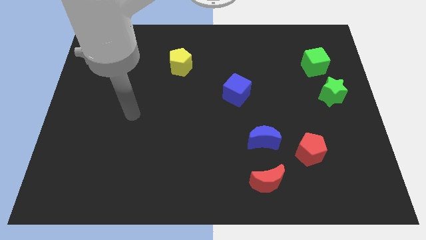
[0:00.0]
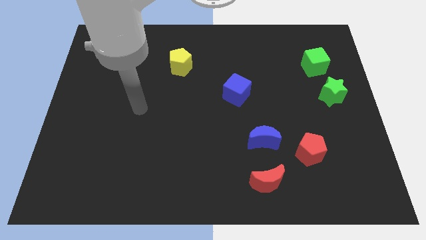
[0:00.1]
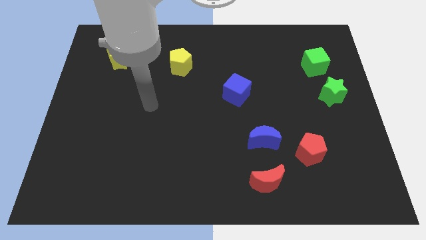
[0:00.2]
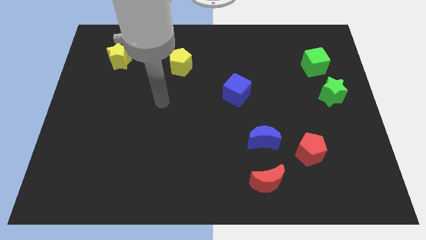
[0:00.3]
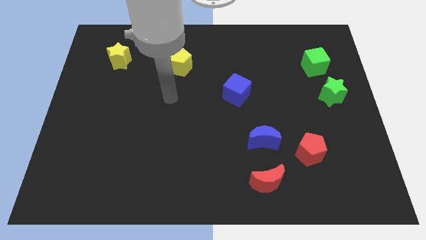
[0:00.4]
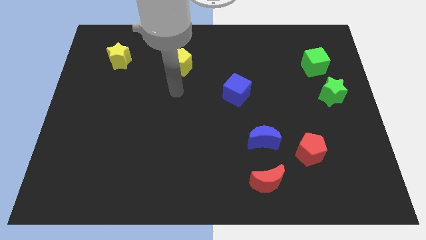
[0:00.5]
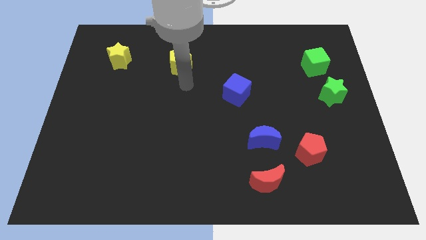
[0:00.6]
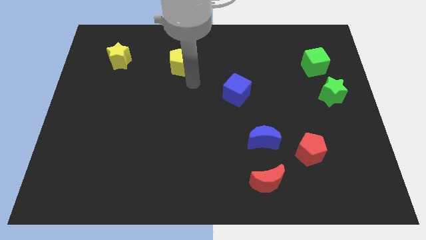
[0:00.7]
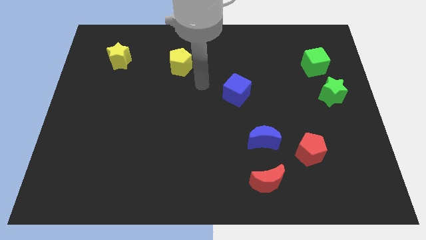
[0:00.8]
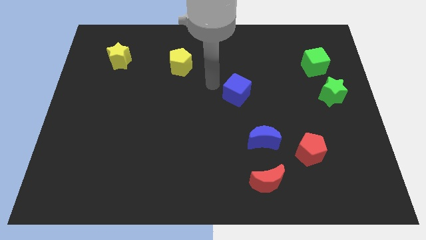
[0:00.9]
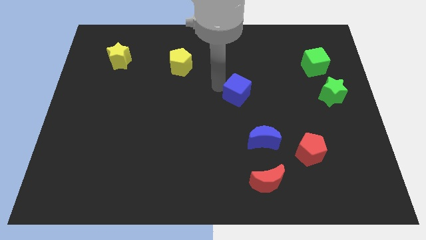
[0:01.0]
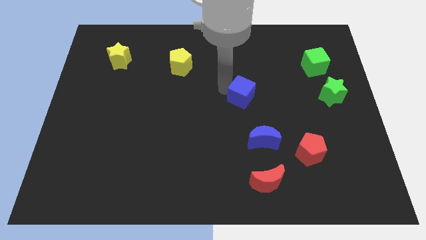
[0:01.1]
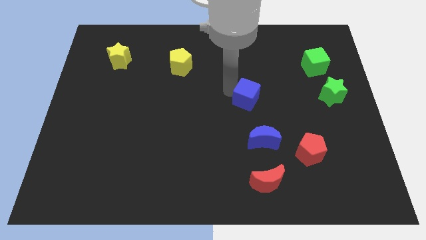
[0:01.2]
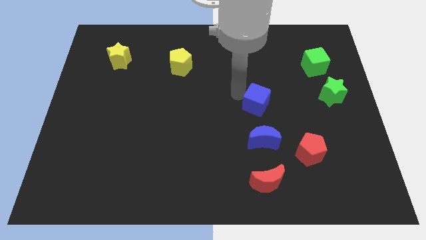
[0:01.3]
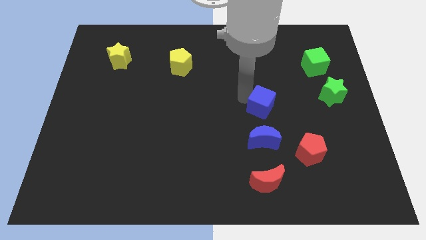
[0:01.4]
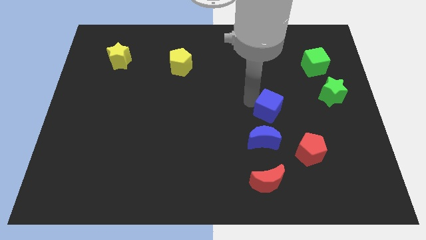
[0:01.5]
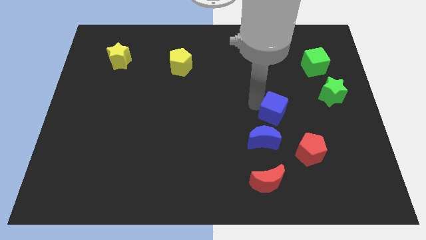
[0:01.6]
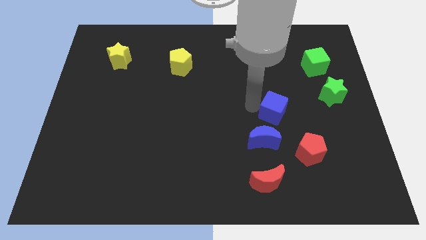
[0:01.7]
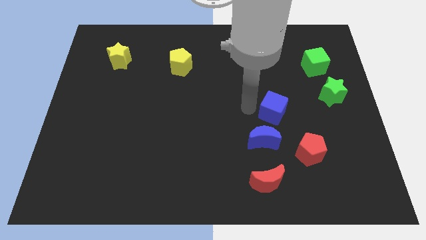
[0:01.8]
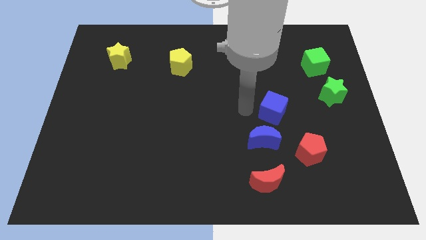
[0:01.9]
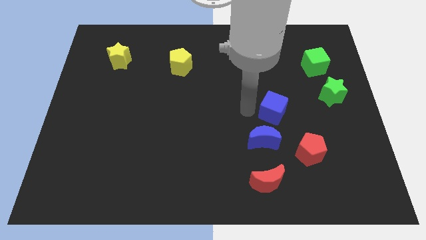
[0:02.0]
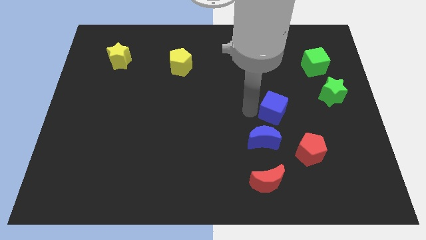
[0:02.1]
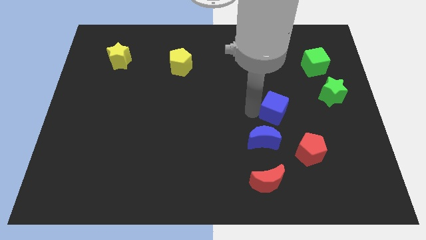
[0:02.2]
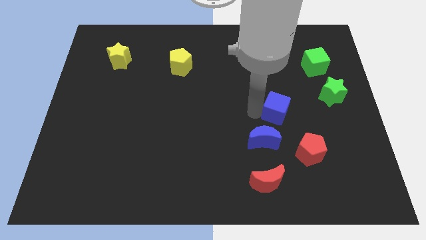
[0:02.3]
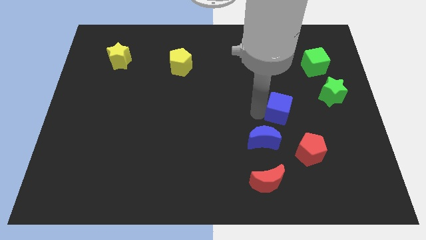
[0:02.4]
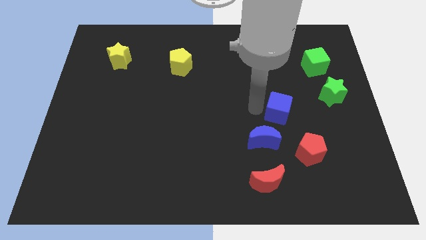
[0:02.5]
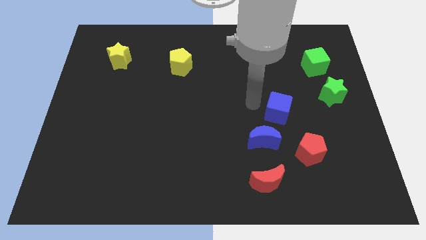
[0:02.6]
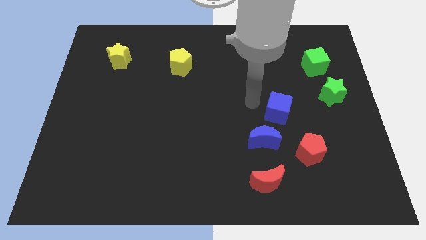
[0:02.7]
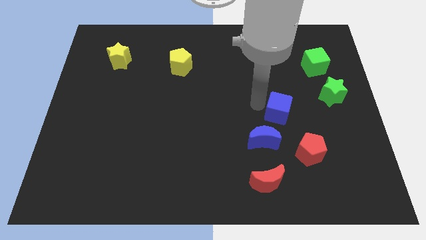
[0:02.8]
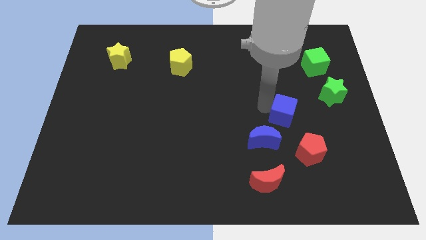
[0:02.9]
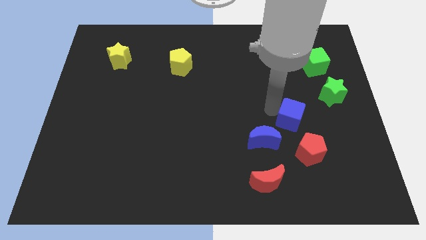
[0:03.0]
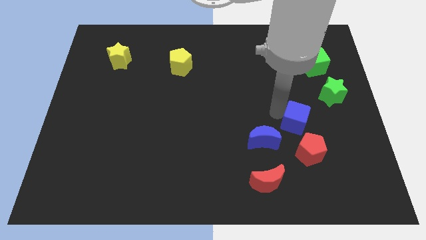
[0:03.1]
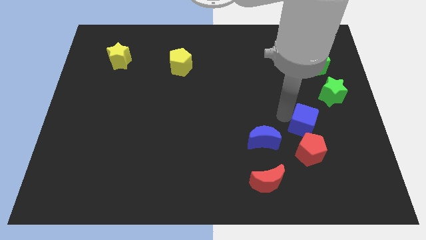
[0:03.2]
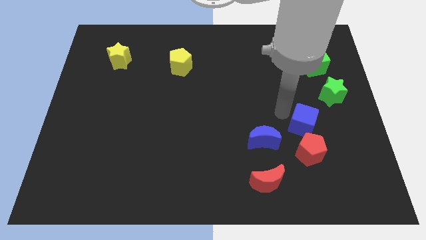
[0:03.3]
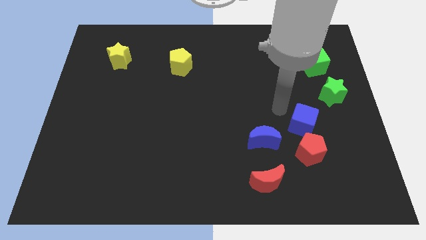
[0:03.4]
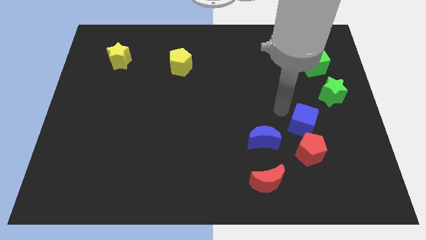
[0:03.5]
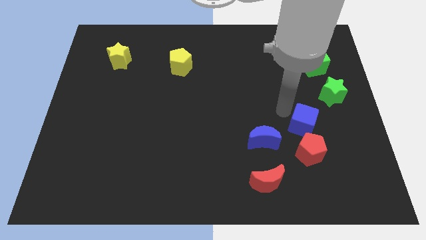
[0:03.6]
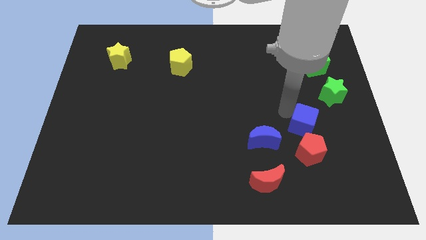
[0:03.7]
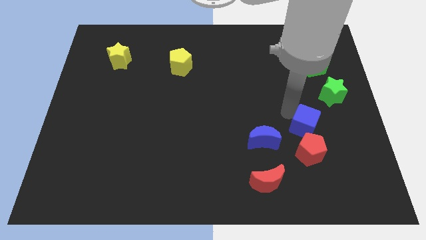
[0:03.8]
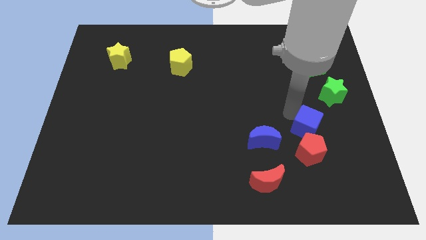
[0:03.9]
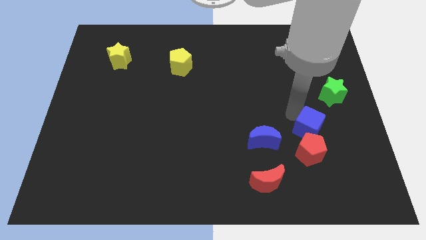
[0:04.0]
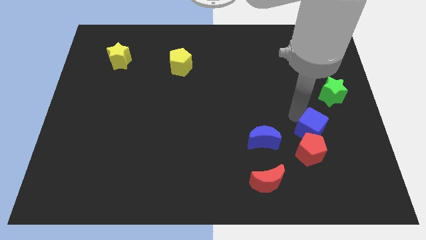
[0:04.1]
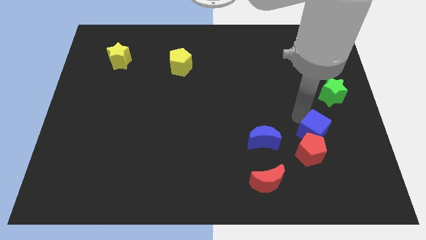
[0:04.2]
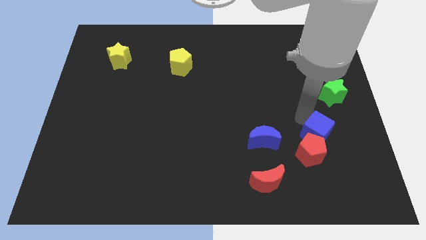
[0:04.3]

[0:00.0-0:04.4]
slide the blue cube downwards and then right

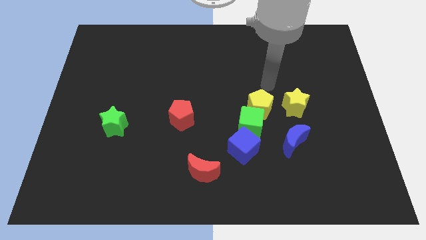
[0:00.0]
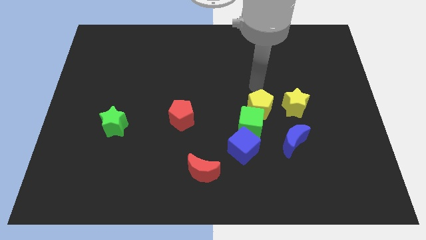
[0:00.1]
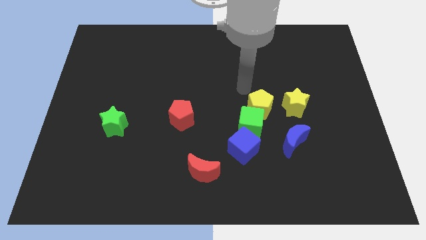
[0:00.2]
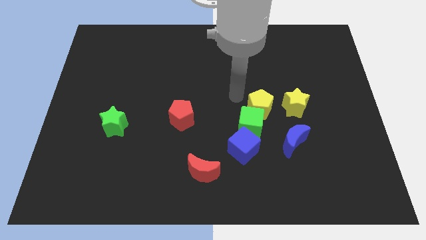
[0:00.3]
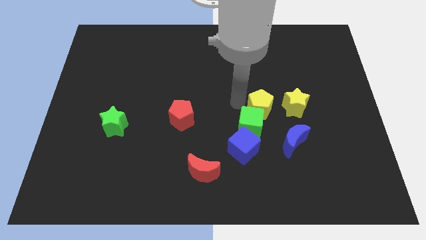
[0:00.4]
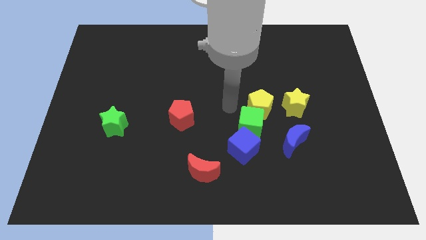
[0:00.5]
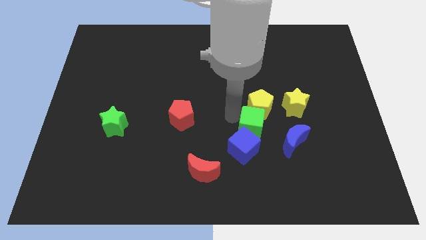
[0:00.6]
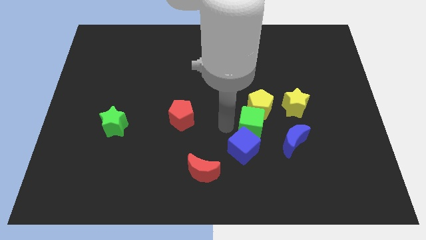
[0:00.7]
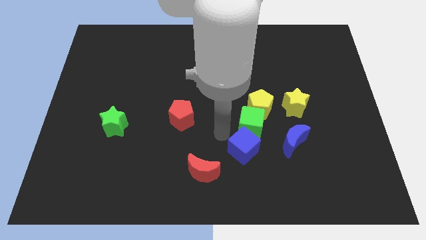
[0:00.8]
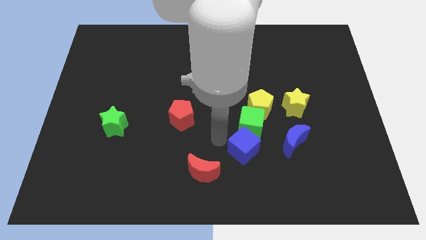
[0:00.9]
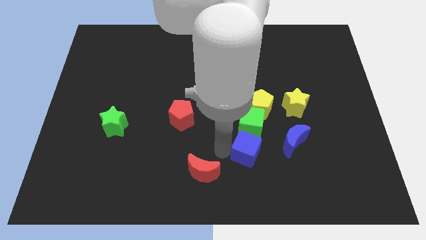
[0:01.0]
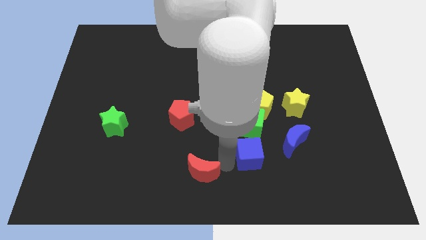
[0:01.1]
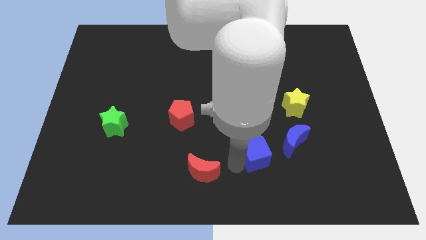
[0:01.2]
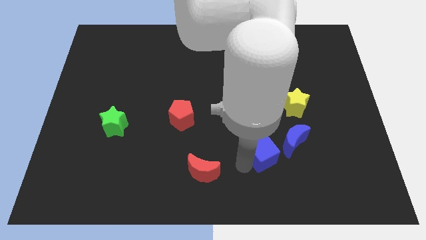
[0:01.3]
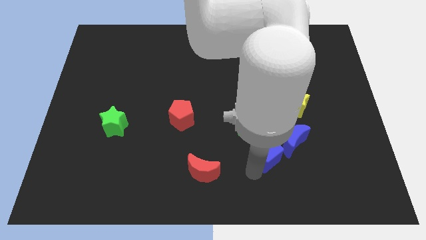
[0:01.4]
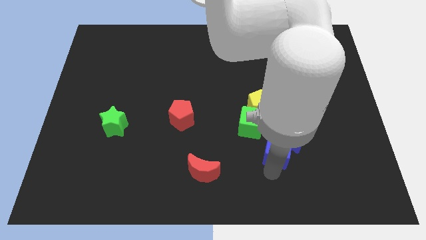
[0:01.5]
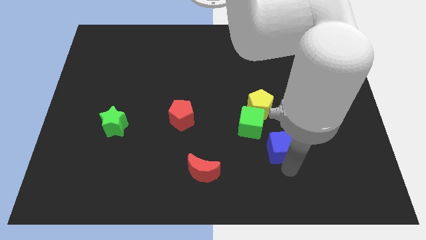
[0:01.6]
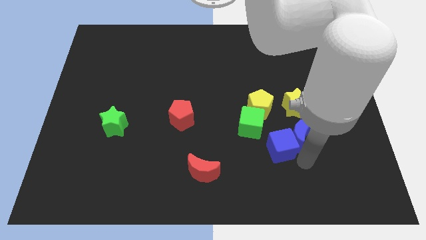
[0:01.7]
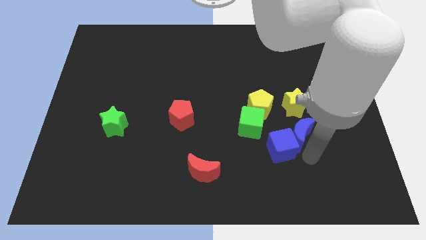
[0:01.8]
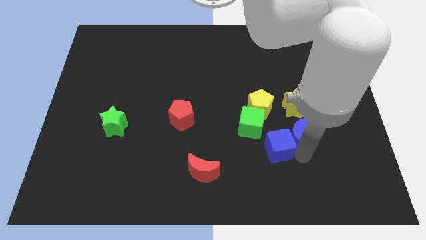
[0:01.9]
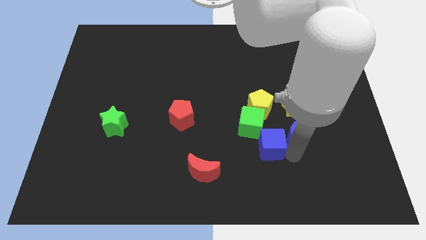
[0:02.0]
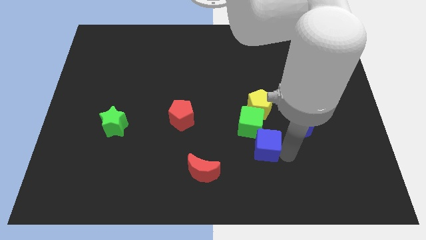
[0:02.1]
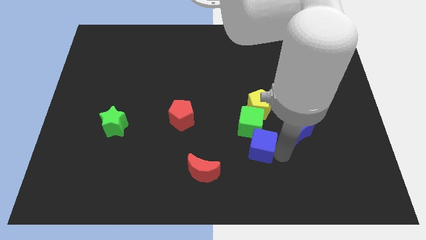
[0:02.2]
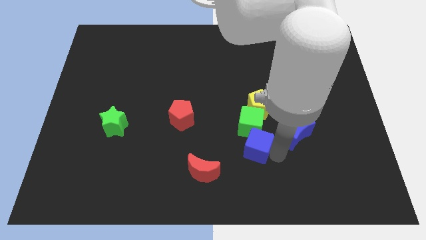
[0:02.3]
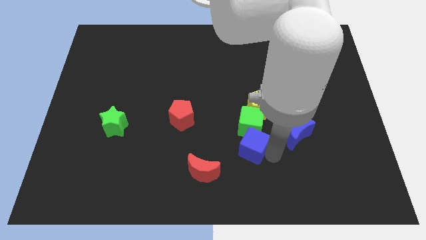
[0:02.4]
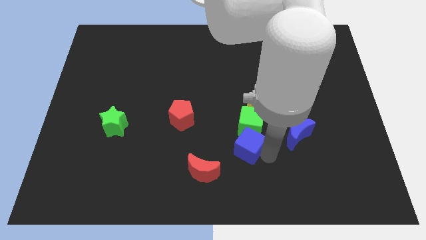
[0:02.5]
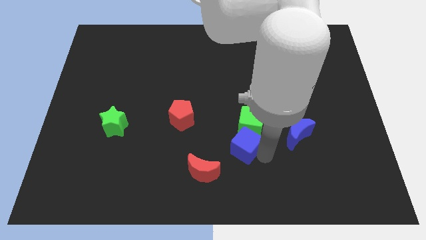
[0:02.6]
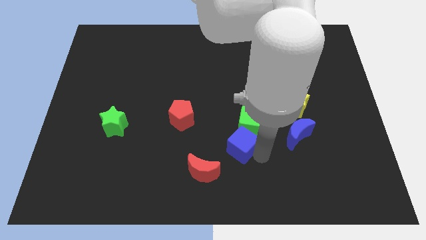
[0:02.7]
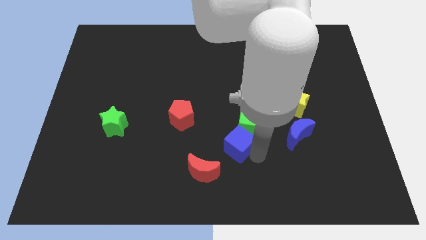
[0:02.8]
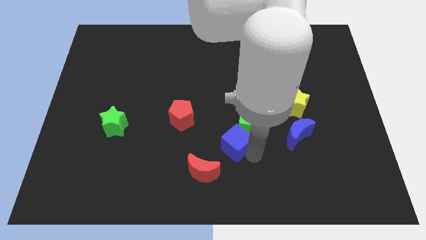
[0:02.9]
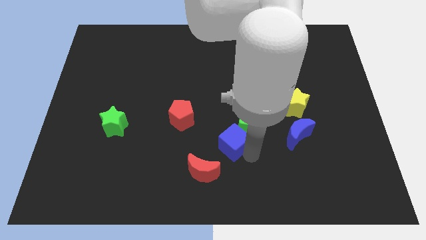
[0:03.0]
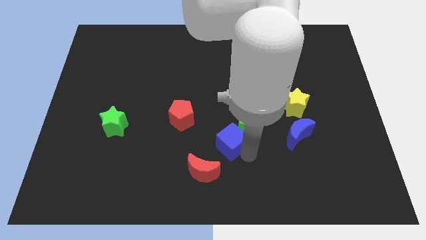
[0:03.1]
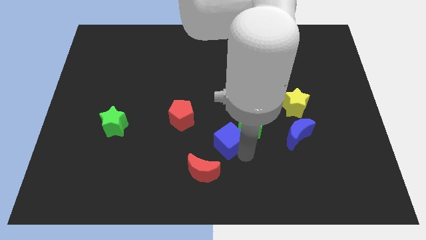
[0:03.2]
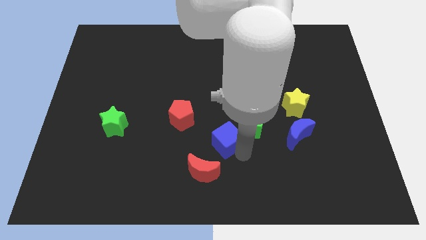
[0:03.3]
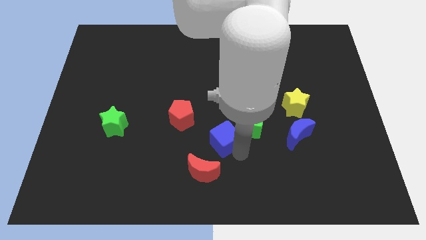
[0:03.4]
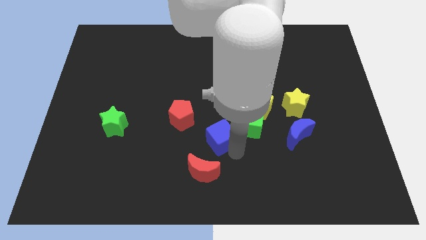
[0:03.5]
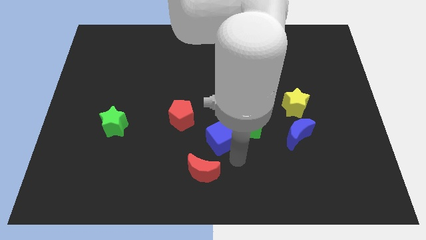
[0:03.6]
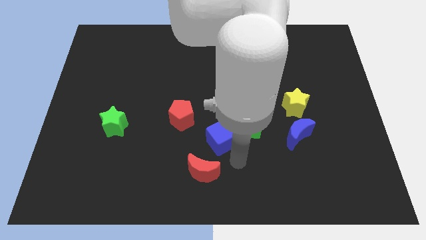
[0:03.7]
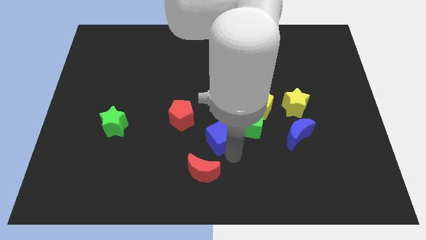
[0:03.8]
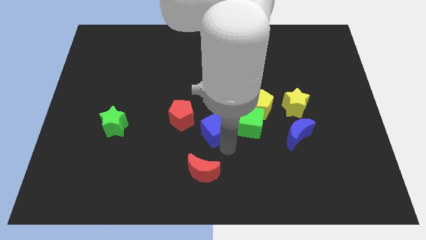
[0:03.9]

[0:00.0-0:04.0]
slide the blue cube slightly up and then left
